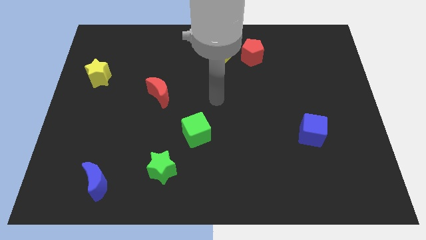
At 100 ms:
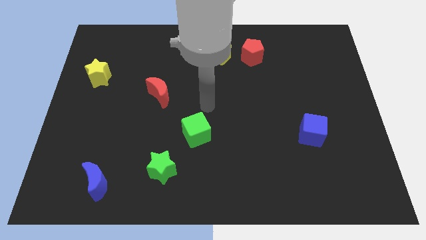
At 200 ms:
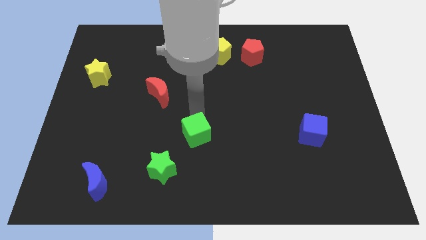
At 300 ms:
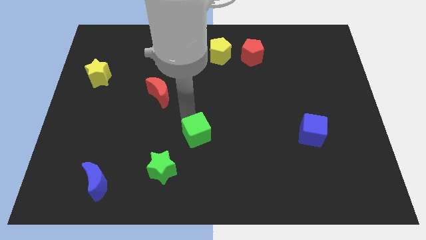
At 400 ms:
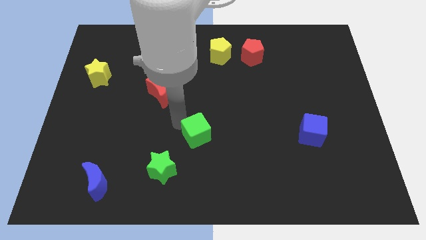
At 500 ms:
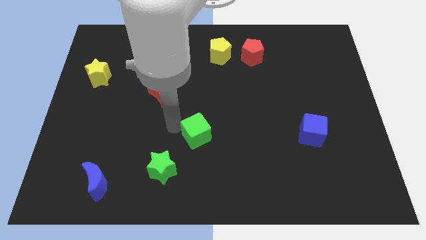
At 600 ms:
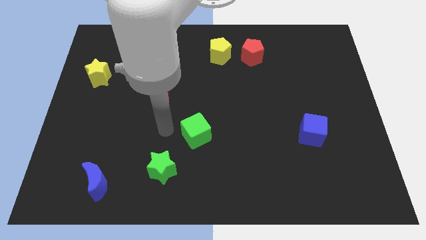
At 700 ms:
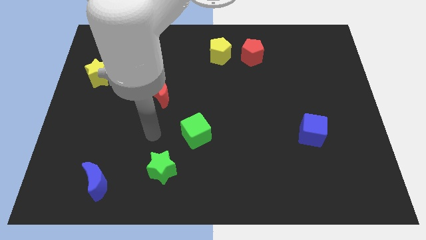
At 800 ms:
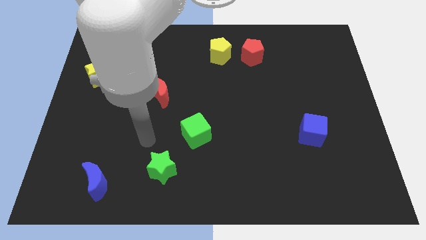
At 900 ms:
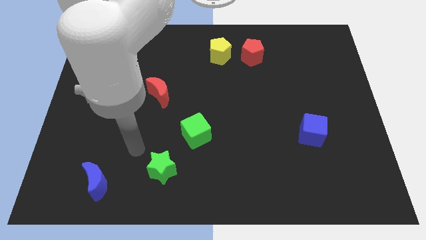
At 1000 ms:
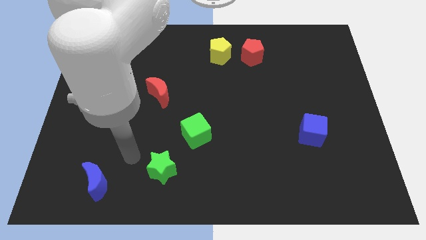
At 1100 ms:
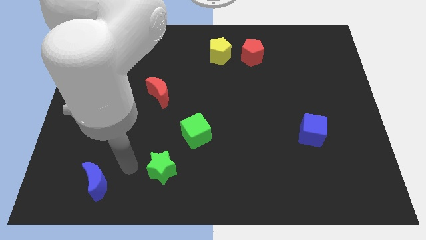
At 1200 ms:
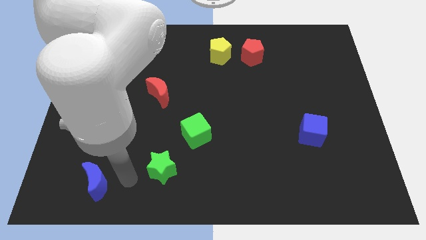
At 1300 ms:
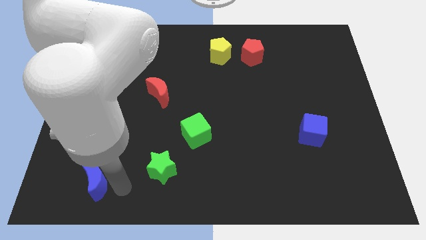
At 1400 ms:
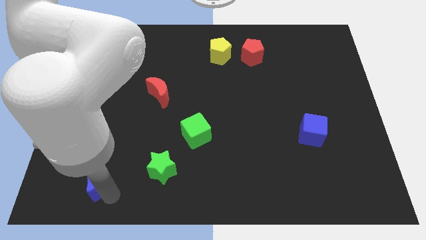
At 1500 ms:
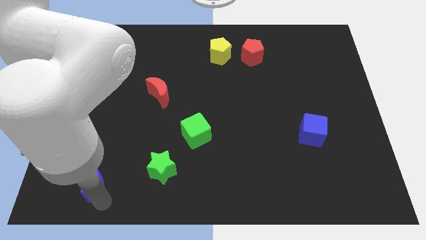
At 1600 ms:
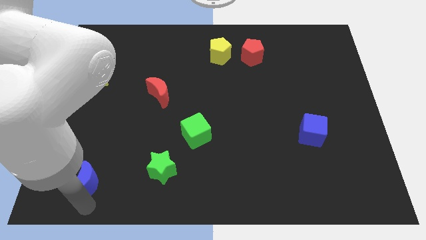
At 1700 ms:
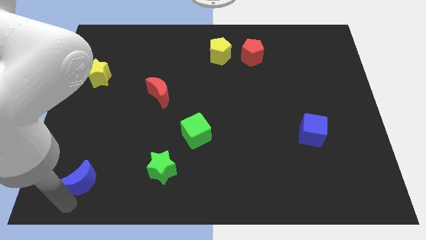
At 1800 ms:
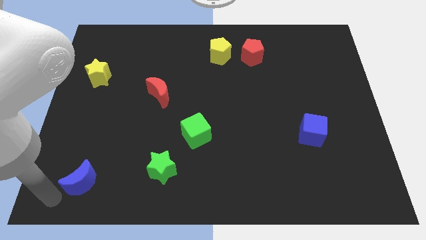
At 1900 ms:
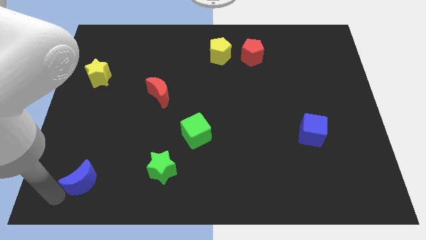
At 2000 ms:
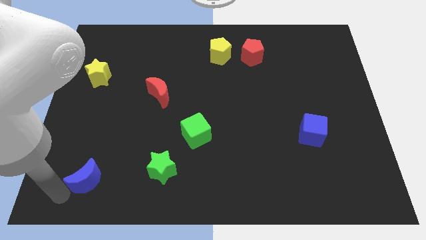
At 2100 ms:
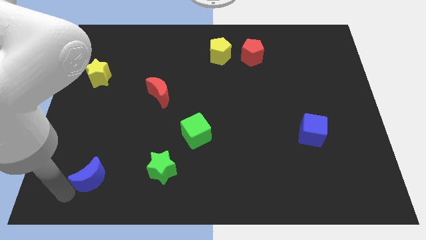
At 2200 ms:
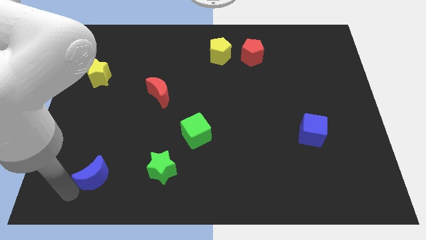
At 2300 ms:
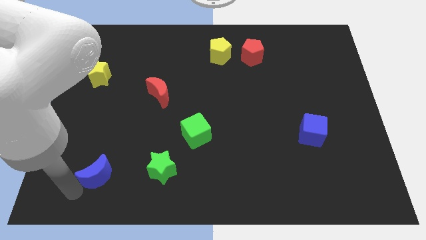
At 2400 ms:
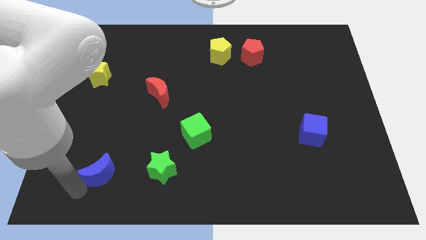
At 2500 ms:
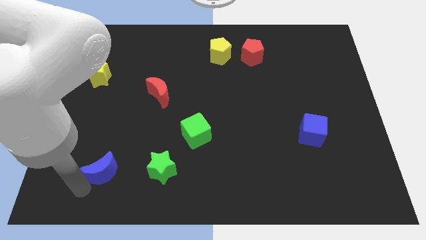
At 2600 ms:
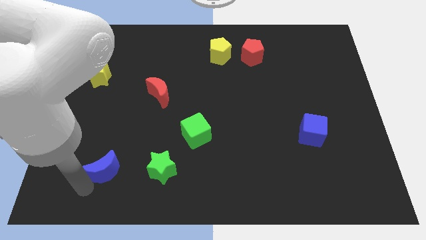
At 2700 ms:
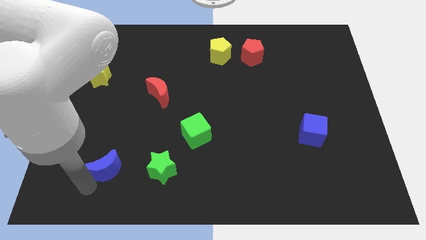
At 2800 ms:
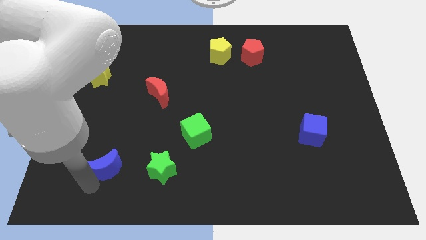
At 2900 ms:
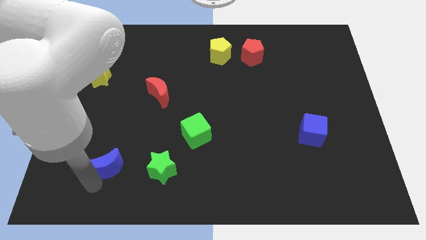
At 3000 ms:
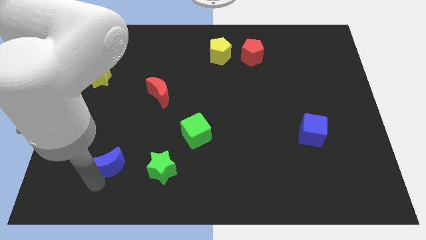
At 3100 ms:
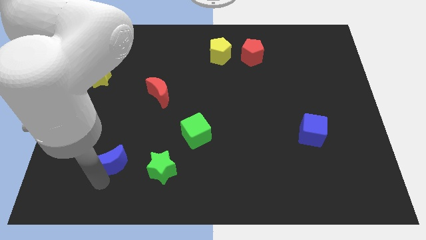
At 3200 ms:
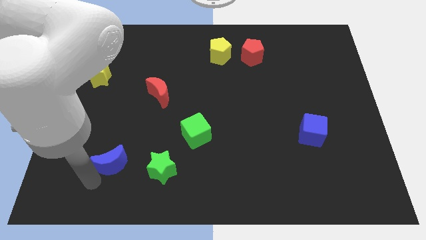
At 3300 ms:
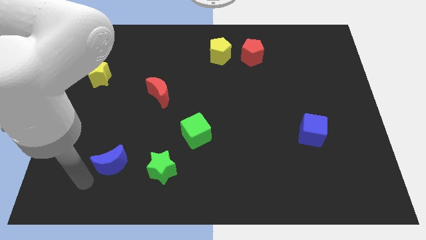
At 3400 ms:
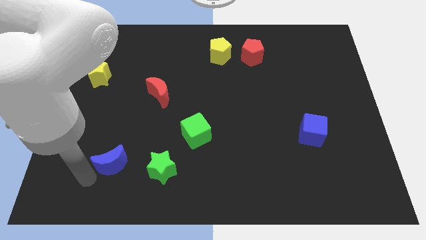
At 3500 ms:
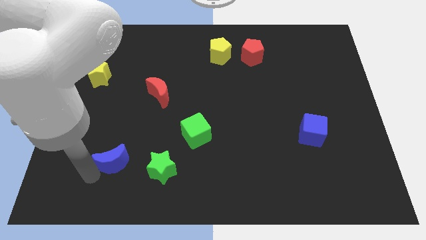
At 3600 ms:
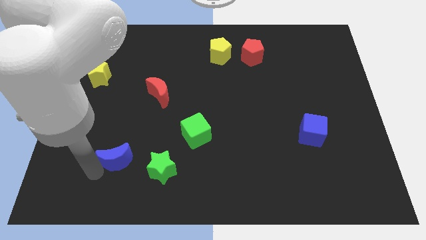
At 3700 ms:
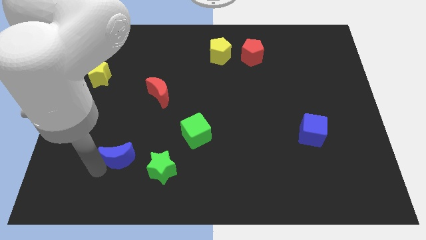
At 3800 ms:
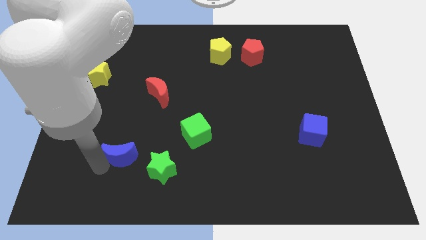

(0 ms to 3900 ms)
push the blue moon a little diagonally up and to the right

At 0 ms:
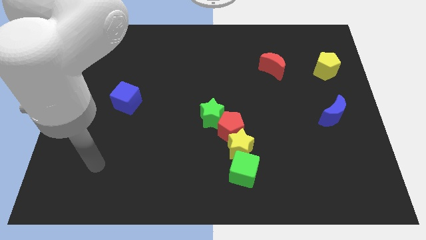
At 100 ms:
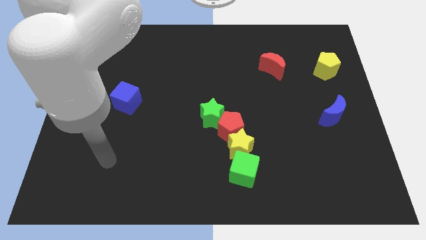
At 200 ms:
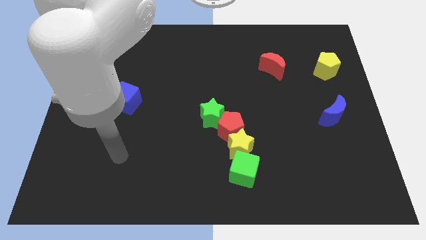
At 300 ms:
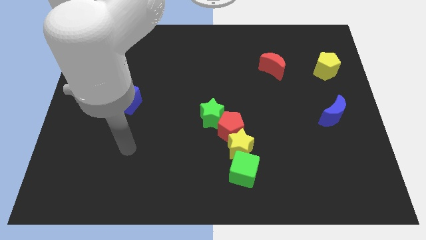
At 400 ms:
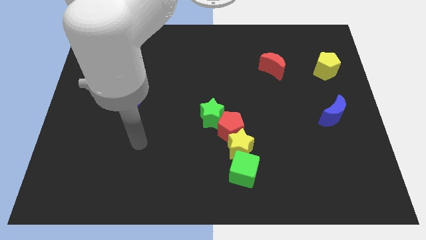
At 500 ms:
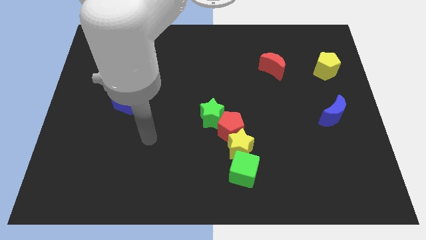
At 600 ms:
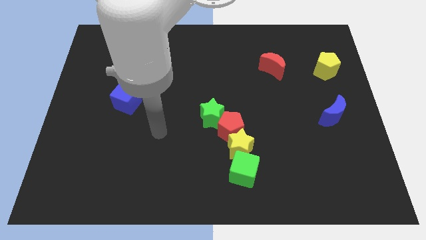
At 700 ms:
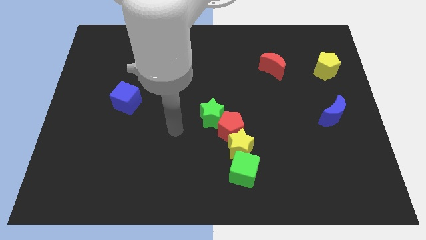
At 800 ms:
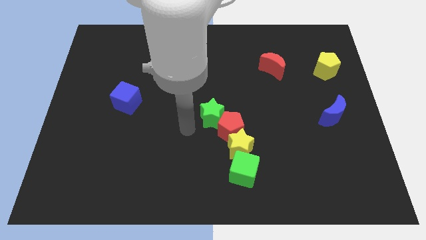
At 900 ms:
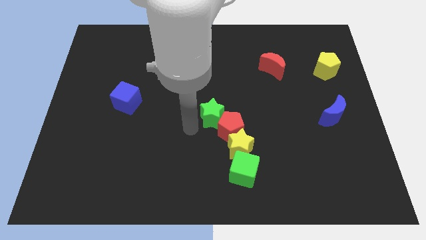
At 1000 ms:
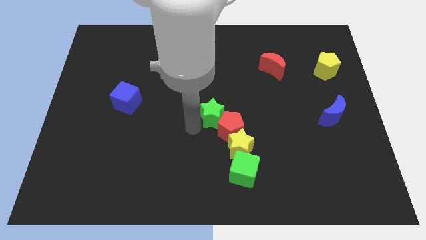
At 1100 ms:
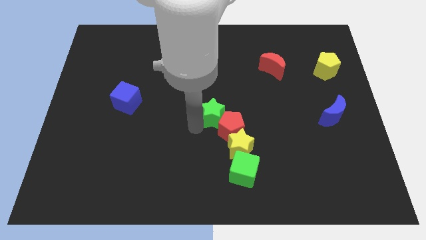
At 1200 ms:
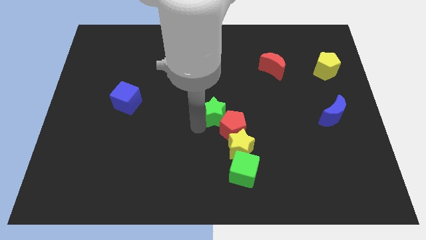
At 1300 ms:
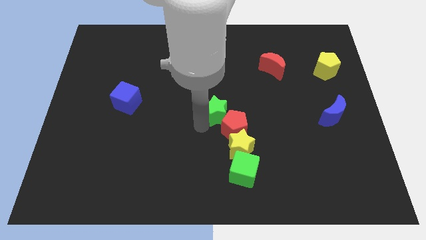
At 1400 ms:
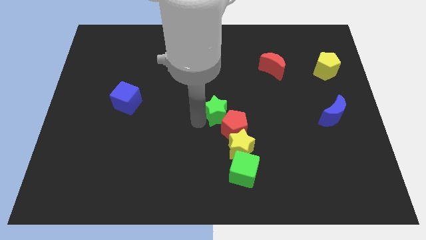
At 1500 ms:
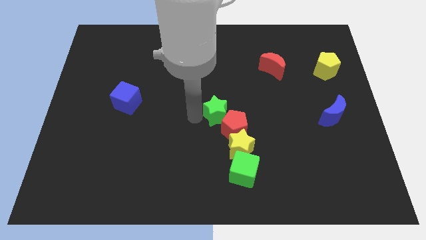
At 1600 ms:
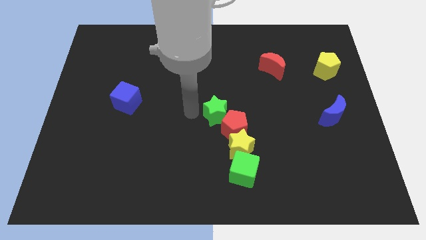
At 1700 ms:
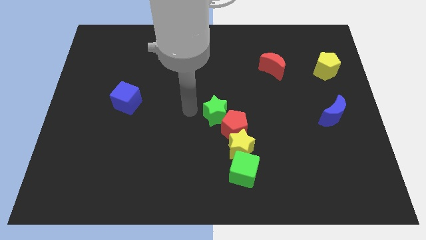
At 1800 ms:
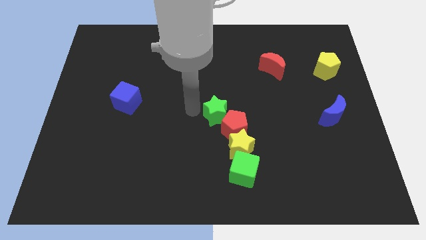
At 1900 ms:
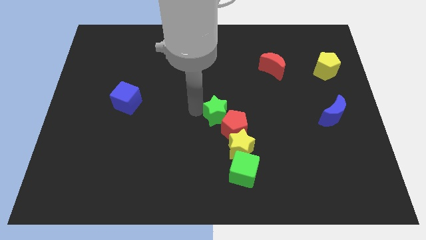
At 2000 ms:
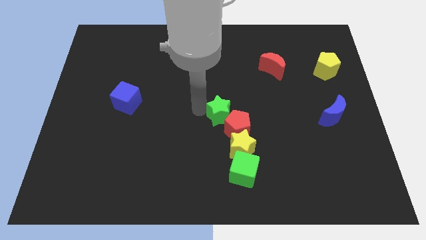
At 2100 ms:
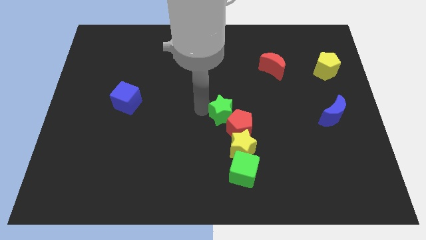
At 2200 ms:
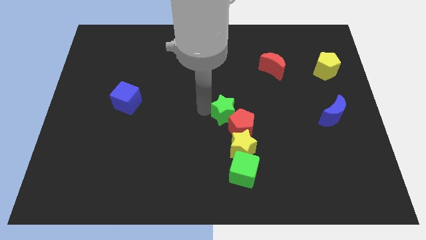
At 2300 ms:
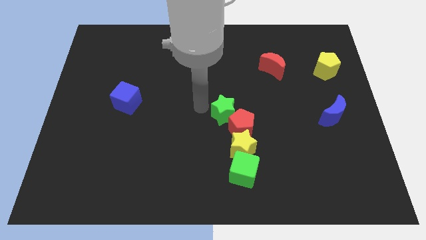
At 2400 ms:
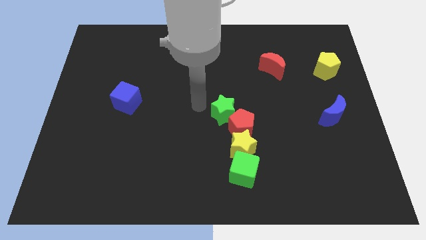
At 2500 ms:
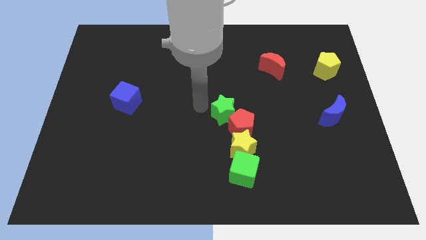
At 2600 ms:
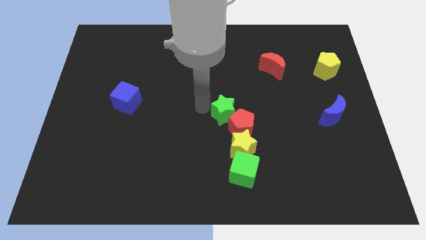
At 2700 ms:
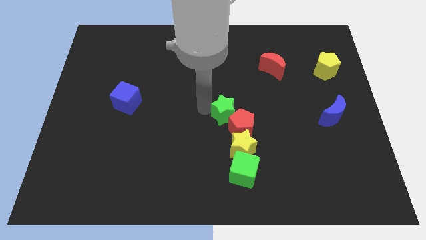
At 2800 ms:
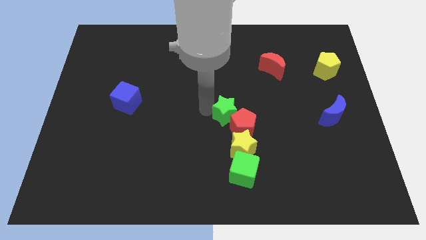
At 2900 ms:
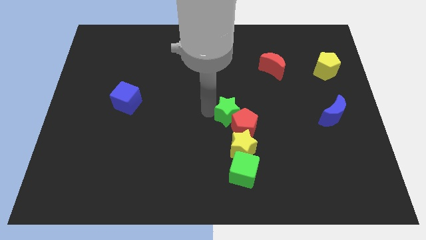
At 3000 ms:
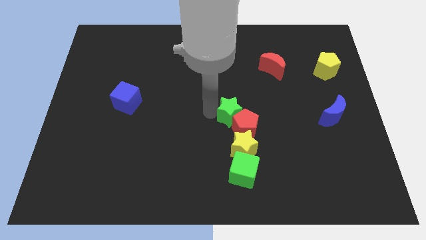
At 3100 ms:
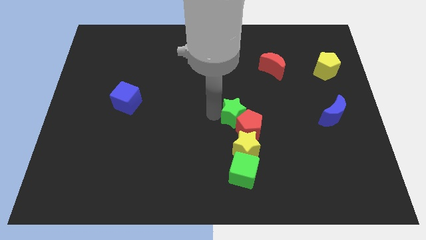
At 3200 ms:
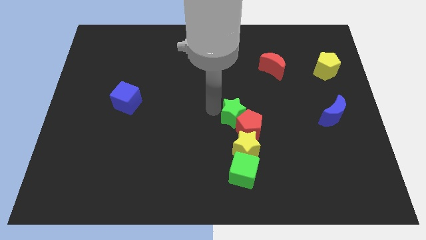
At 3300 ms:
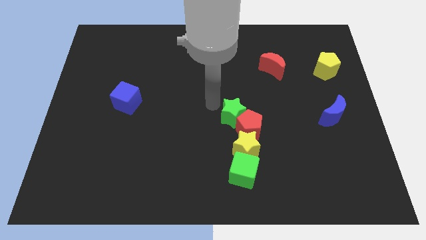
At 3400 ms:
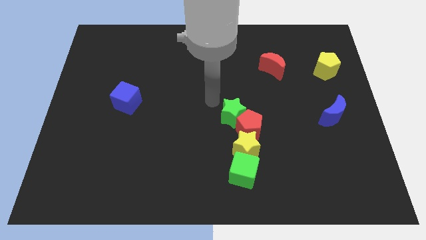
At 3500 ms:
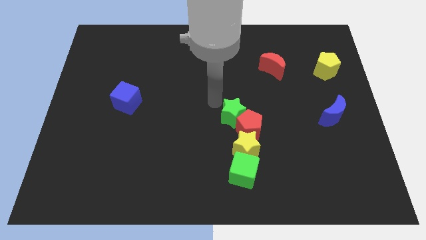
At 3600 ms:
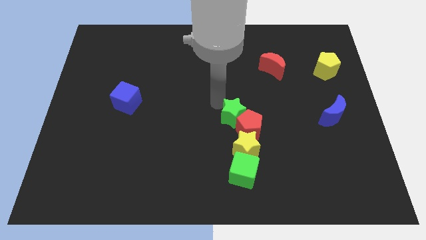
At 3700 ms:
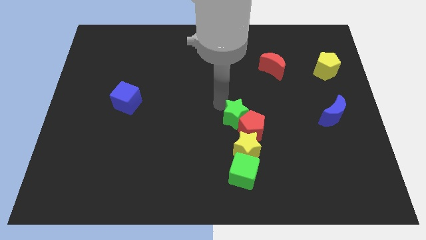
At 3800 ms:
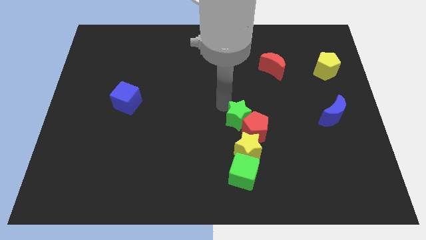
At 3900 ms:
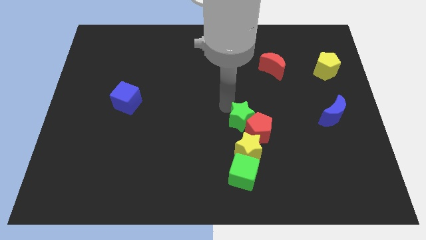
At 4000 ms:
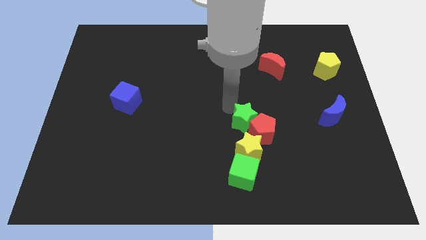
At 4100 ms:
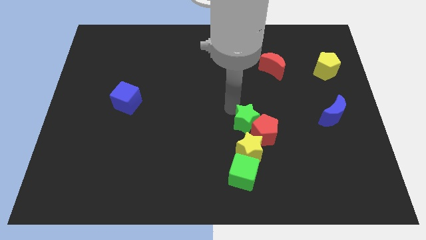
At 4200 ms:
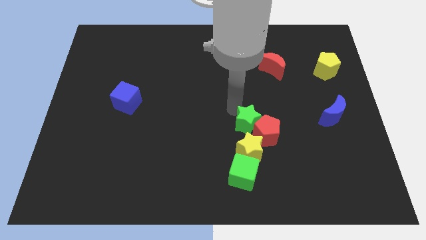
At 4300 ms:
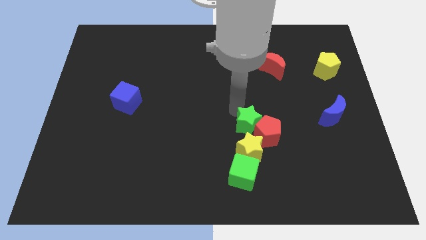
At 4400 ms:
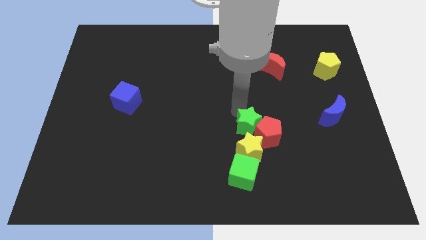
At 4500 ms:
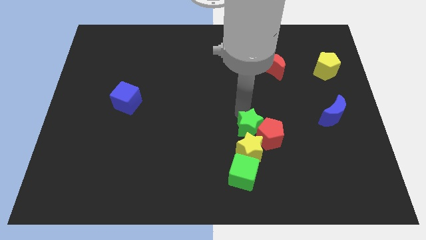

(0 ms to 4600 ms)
slide the green star diagonally downwards and to the right a little

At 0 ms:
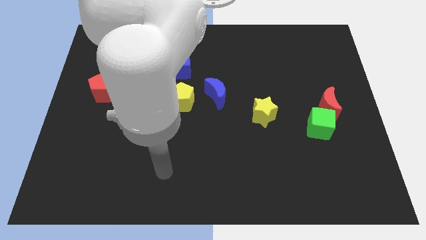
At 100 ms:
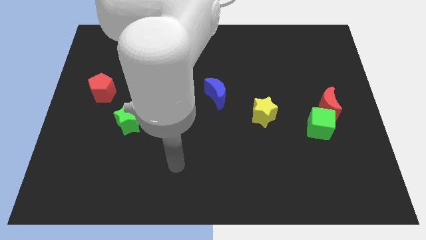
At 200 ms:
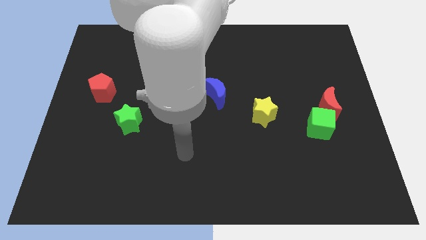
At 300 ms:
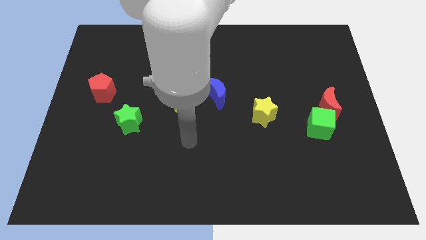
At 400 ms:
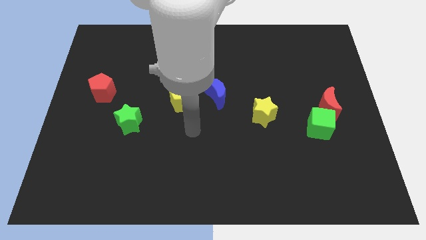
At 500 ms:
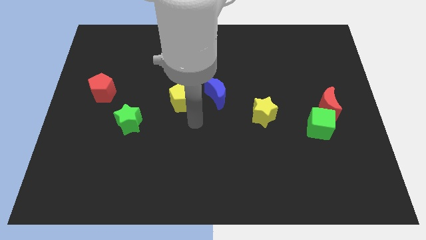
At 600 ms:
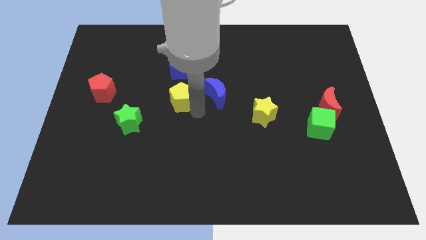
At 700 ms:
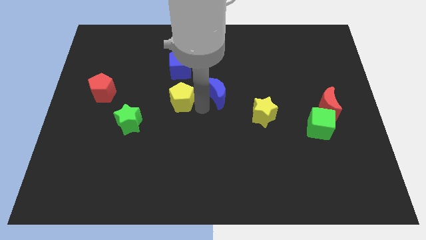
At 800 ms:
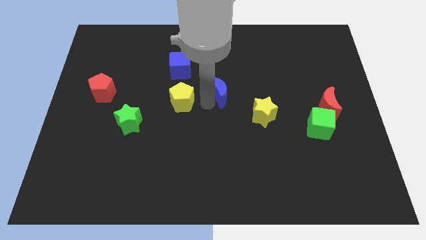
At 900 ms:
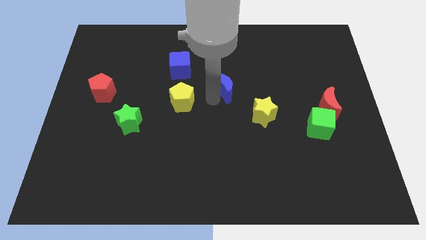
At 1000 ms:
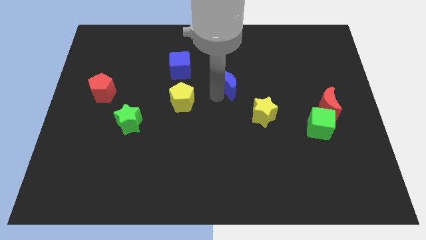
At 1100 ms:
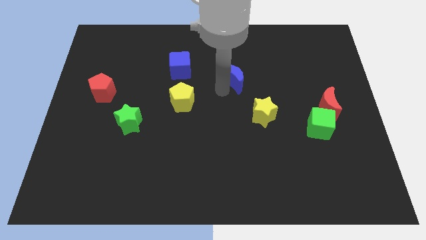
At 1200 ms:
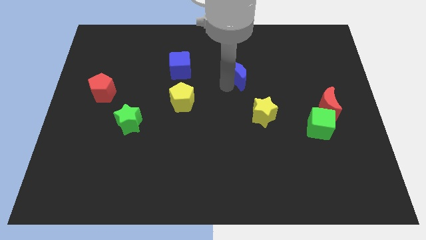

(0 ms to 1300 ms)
slightly slide the blue moon up and right diagonally
